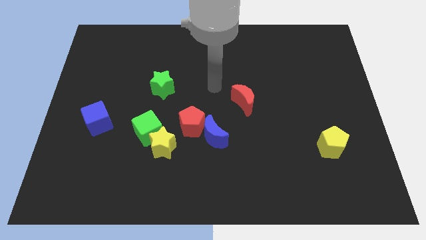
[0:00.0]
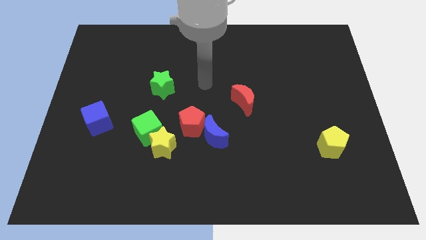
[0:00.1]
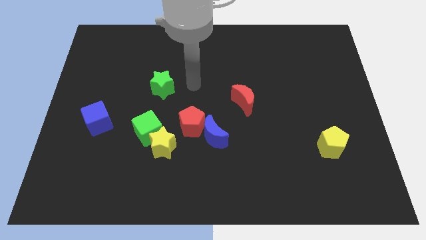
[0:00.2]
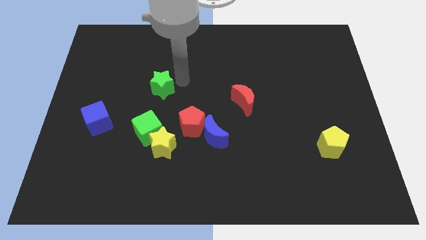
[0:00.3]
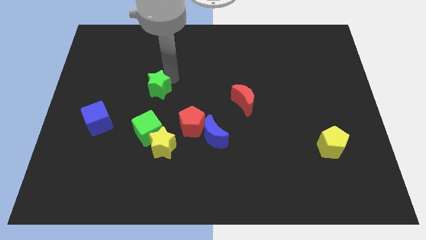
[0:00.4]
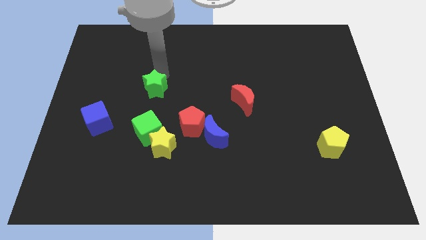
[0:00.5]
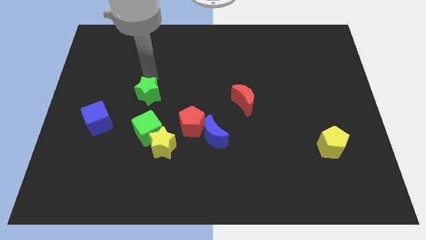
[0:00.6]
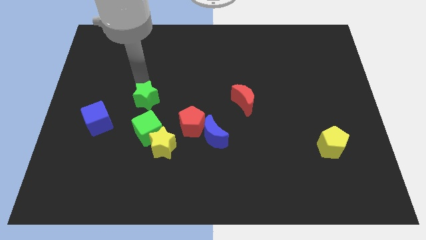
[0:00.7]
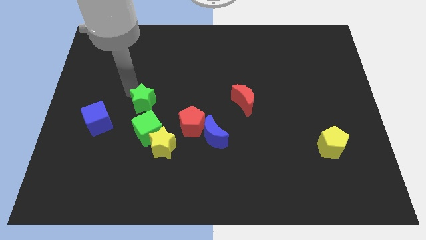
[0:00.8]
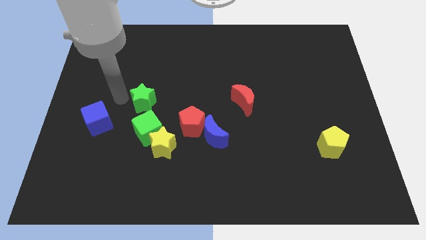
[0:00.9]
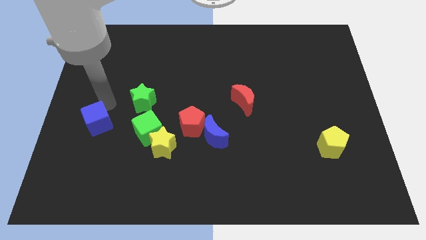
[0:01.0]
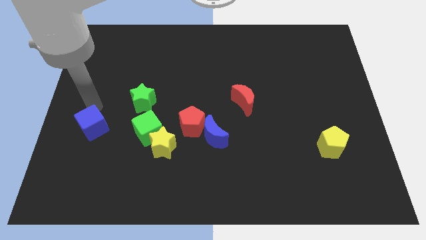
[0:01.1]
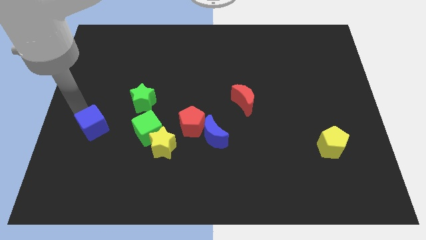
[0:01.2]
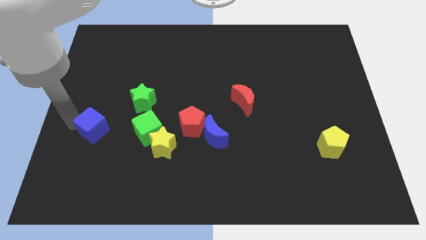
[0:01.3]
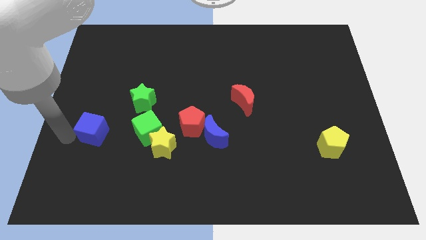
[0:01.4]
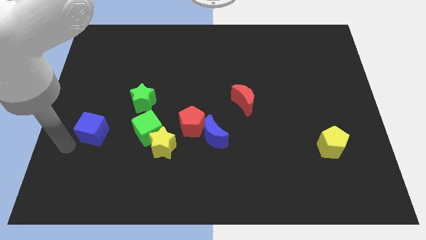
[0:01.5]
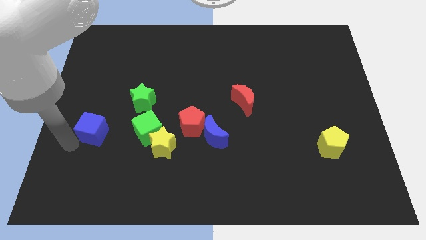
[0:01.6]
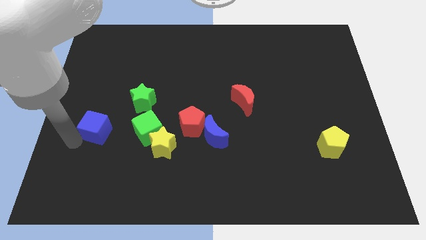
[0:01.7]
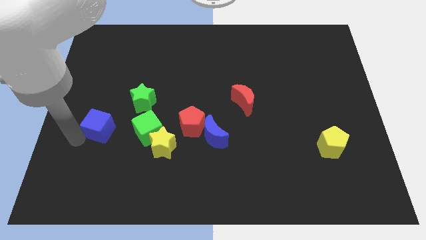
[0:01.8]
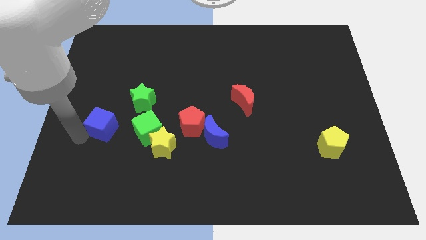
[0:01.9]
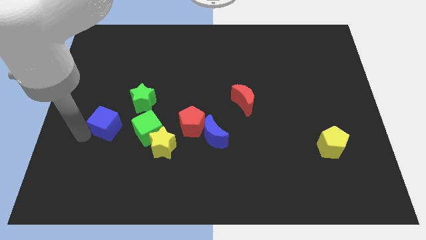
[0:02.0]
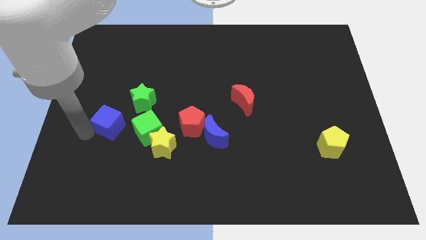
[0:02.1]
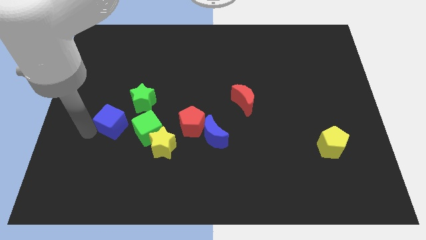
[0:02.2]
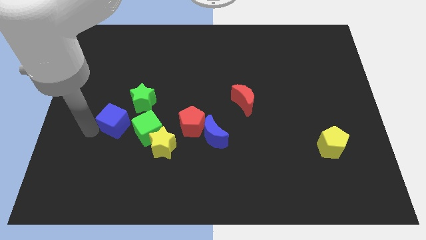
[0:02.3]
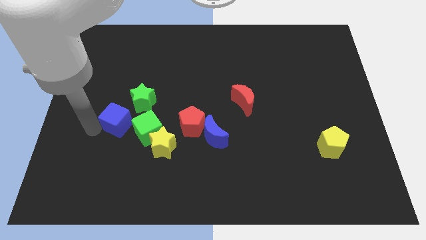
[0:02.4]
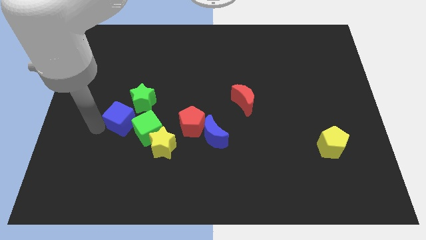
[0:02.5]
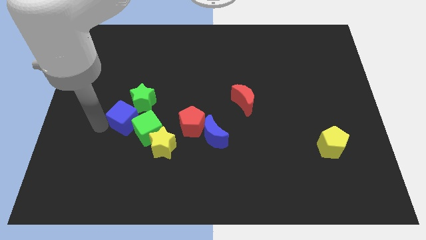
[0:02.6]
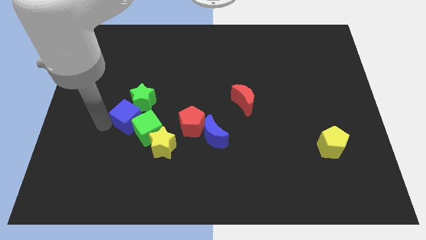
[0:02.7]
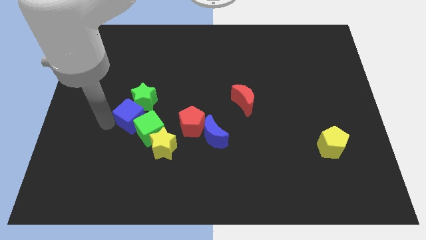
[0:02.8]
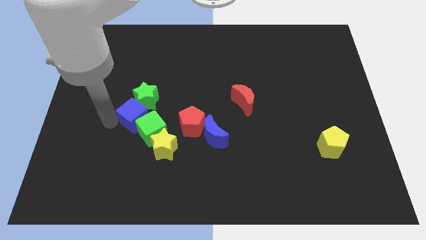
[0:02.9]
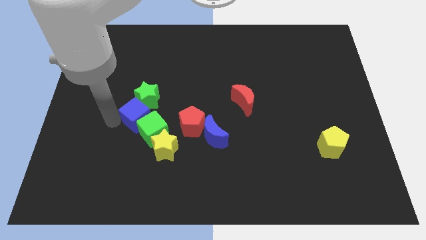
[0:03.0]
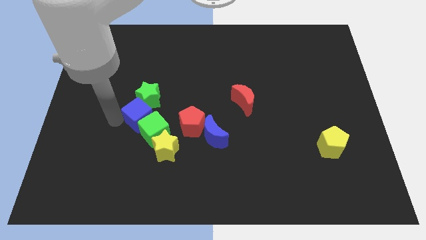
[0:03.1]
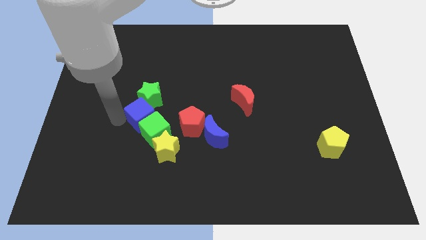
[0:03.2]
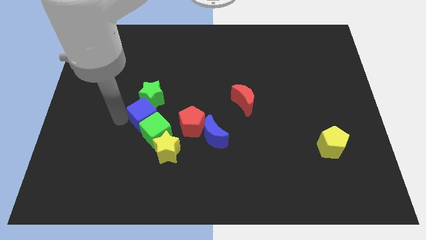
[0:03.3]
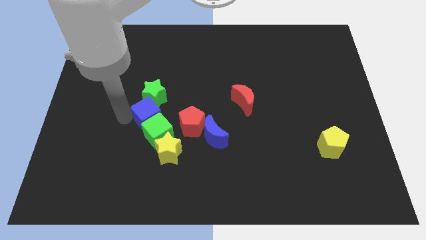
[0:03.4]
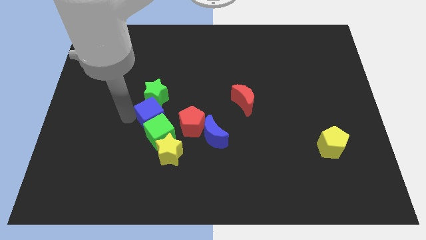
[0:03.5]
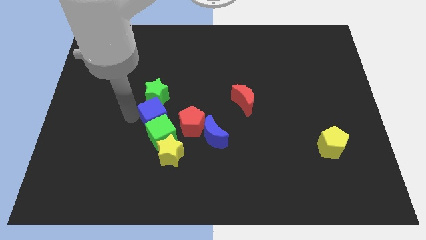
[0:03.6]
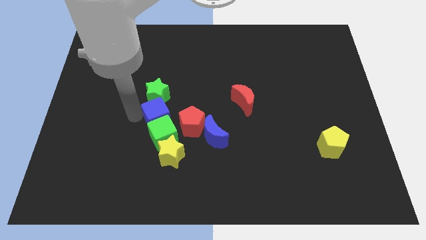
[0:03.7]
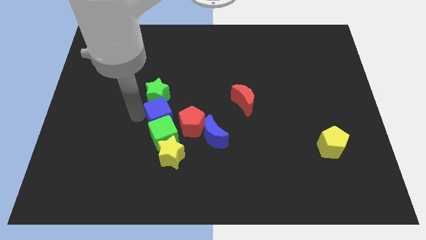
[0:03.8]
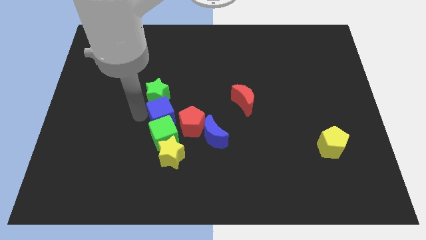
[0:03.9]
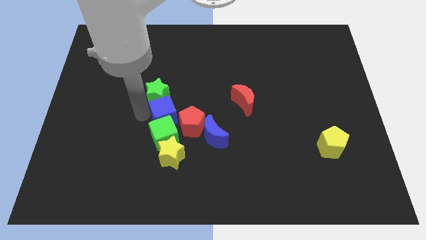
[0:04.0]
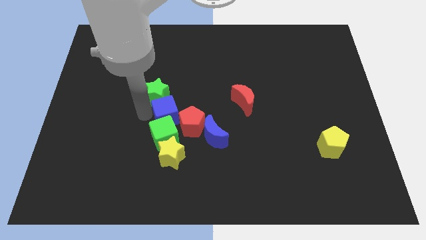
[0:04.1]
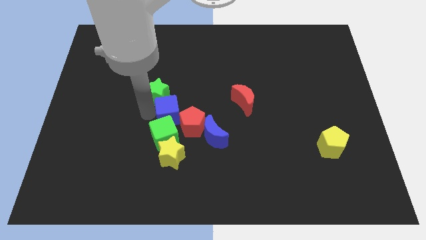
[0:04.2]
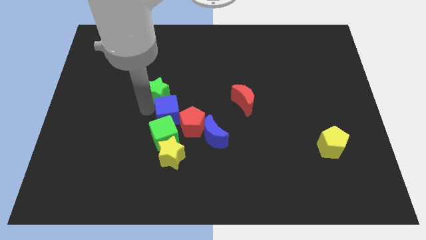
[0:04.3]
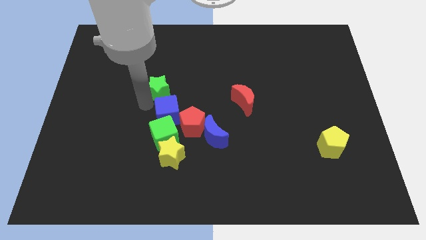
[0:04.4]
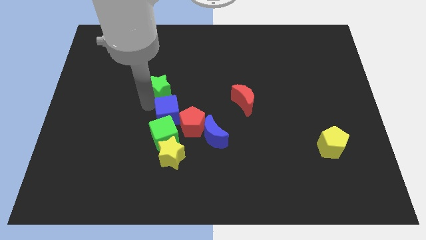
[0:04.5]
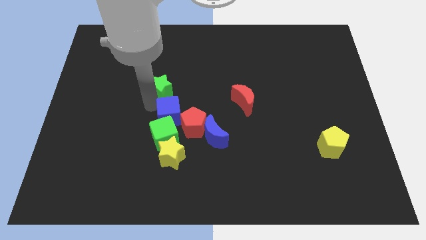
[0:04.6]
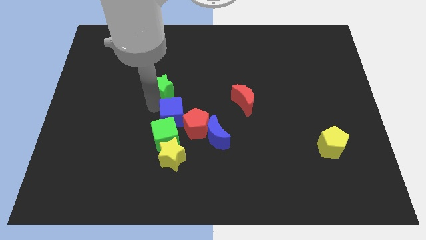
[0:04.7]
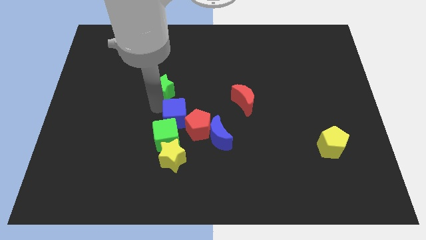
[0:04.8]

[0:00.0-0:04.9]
put the blue cube towards the red pentagon

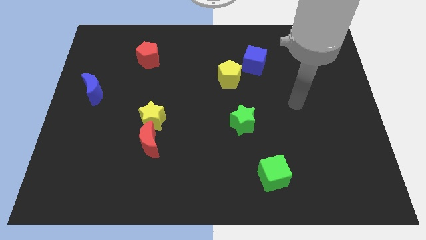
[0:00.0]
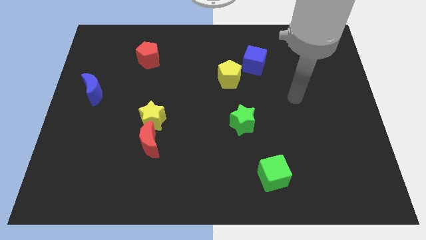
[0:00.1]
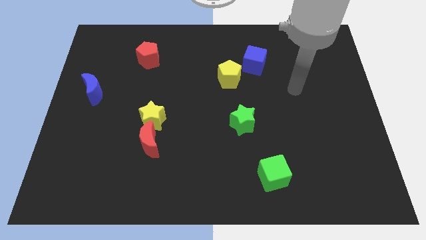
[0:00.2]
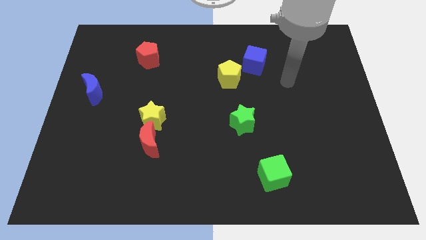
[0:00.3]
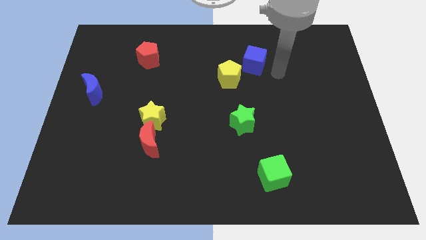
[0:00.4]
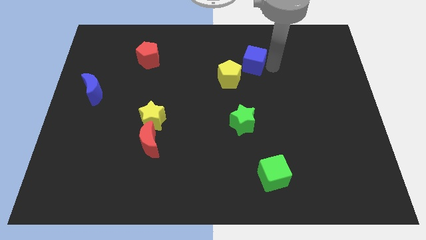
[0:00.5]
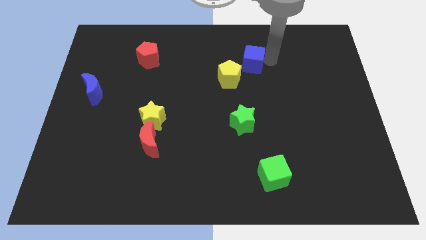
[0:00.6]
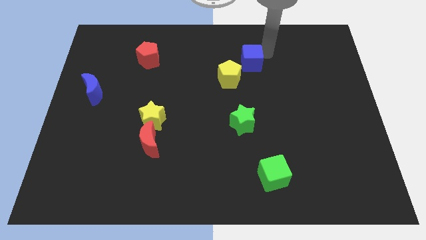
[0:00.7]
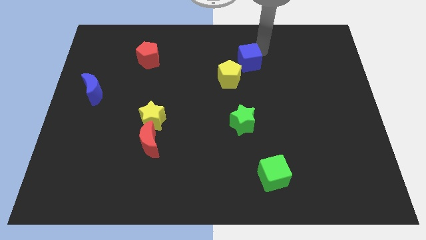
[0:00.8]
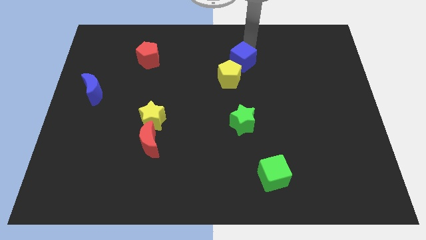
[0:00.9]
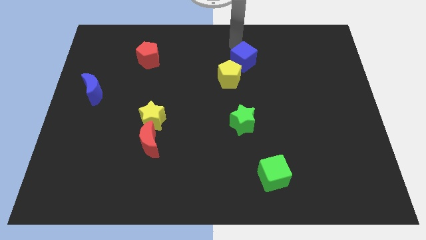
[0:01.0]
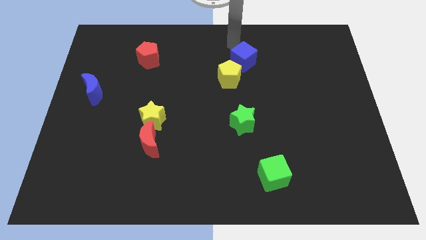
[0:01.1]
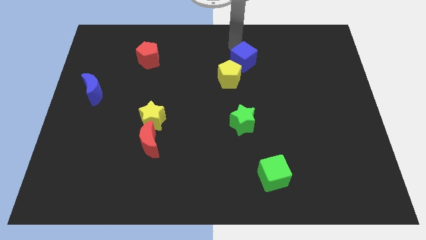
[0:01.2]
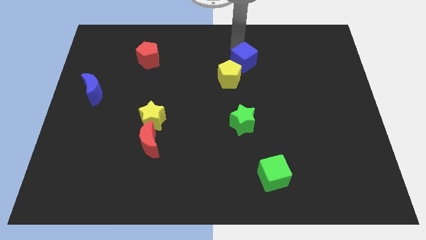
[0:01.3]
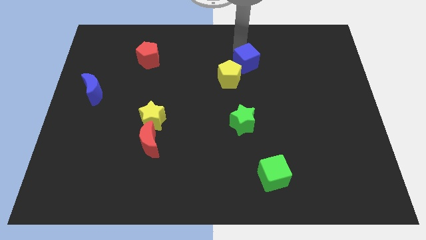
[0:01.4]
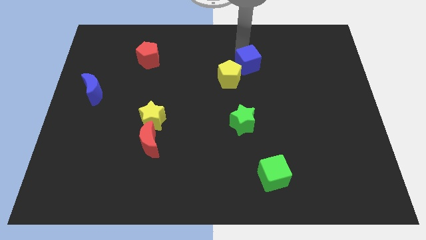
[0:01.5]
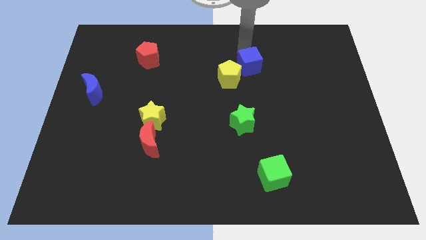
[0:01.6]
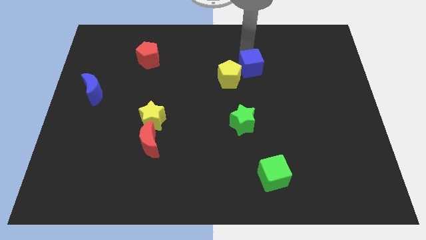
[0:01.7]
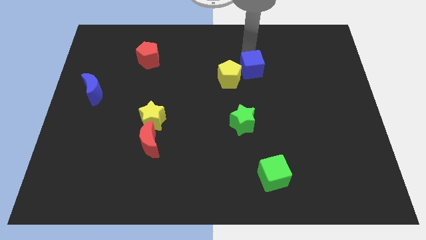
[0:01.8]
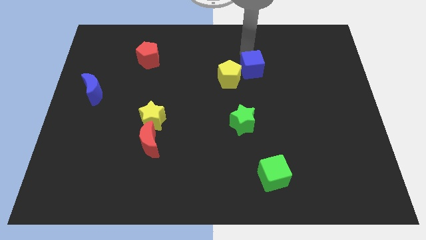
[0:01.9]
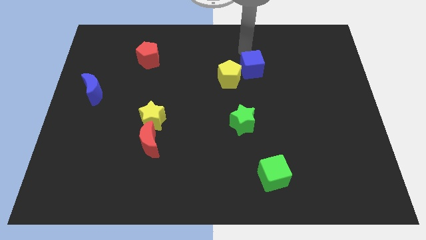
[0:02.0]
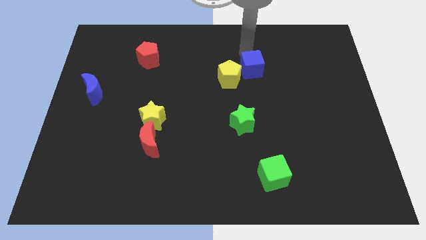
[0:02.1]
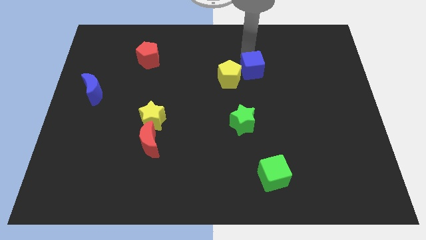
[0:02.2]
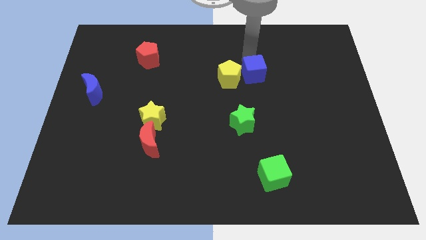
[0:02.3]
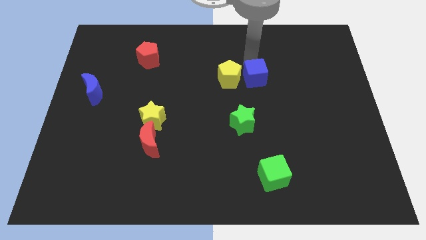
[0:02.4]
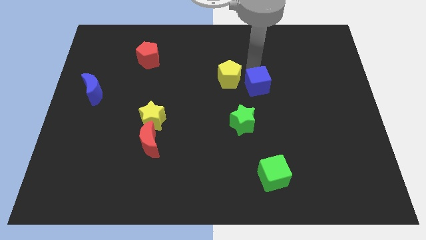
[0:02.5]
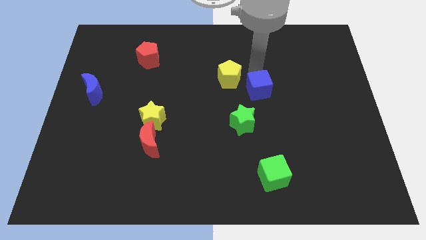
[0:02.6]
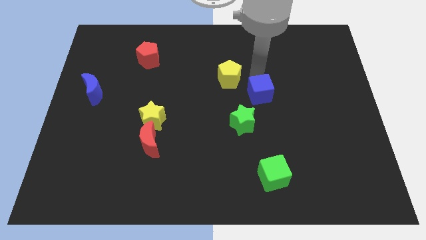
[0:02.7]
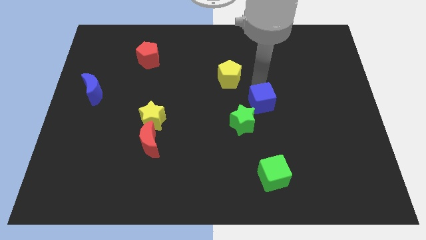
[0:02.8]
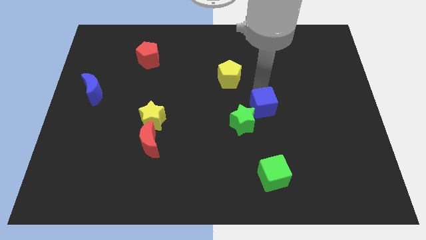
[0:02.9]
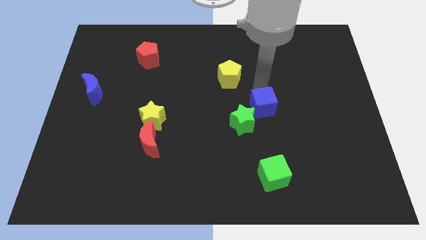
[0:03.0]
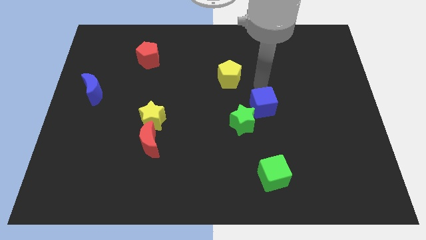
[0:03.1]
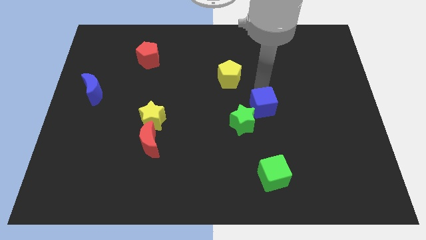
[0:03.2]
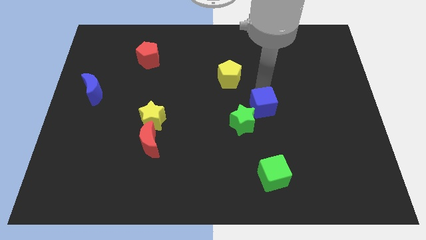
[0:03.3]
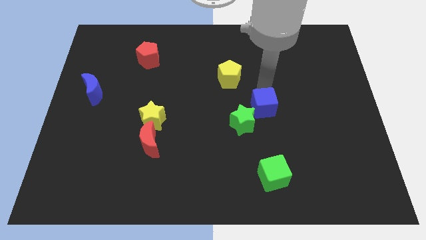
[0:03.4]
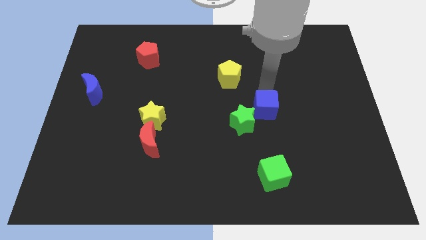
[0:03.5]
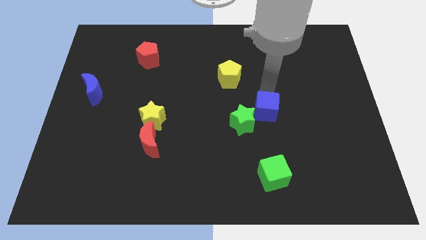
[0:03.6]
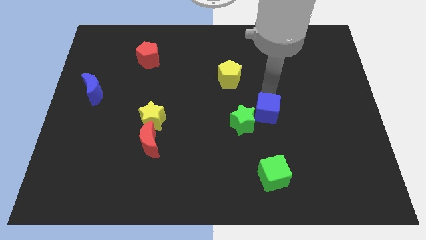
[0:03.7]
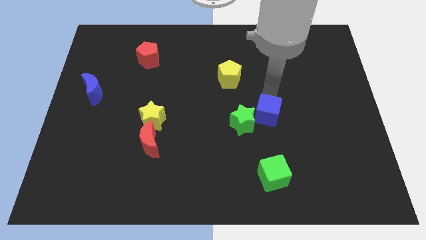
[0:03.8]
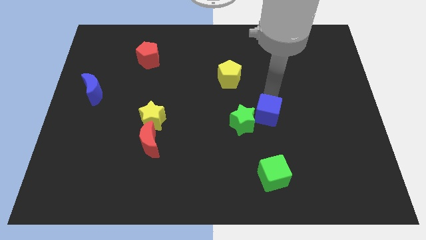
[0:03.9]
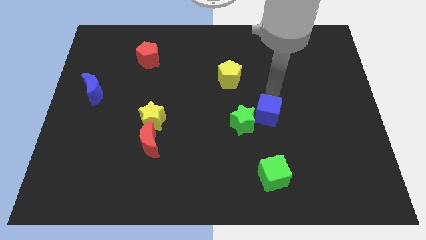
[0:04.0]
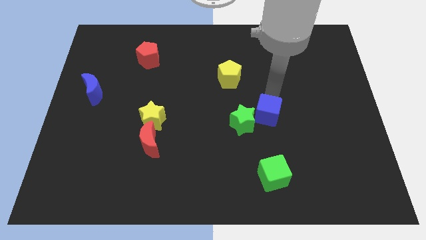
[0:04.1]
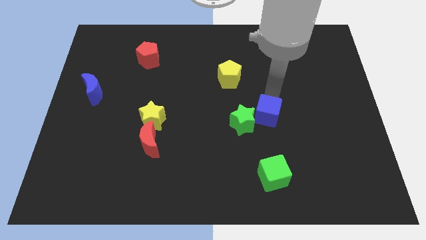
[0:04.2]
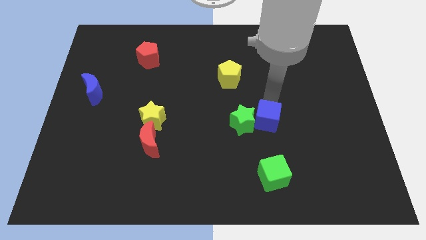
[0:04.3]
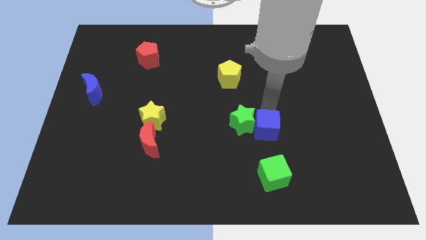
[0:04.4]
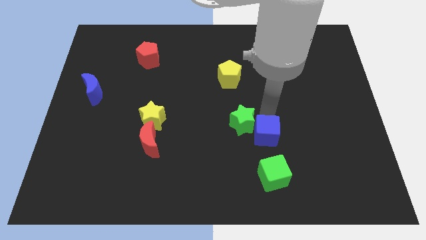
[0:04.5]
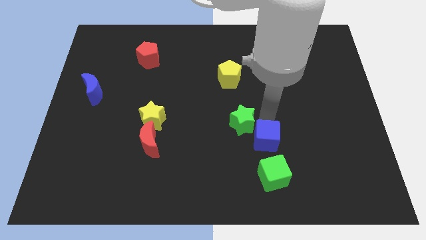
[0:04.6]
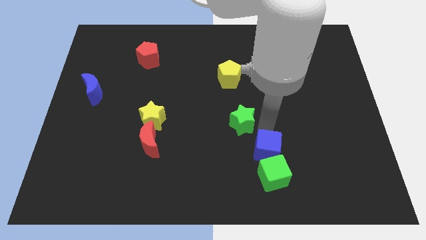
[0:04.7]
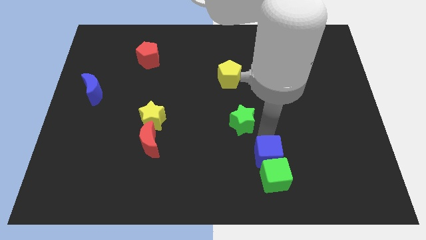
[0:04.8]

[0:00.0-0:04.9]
push the blue cube towards the green cube
